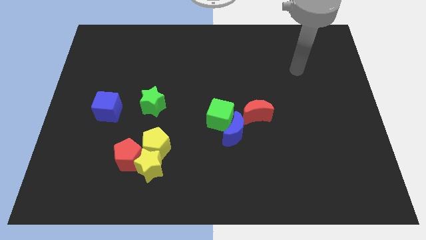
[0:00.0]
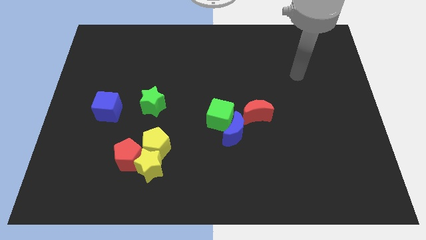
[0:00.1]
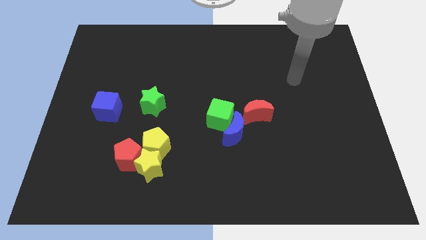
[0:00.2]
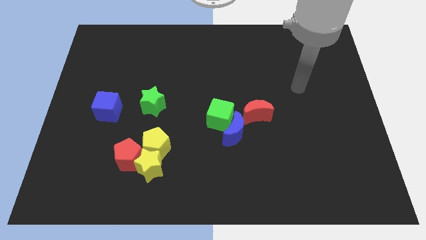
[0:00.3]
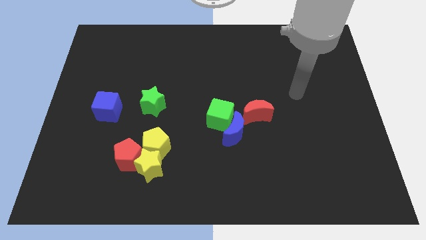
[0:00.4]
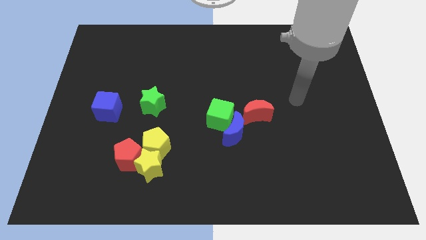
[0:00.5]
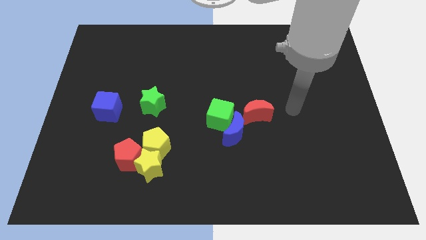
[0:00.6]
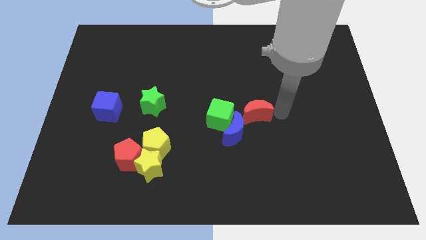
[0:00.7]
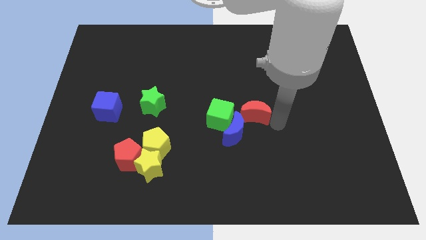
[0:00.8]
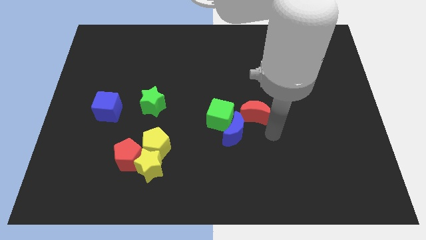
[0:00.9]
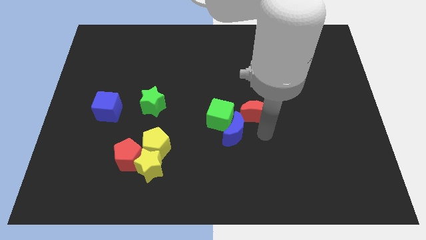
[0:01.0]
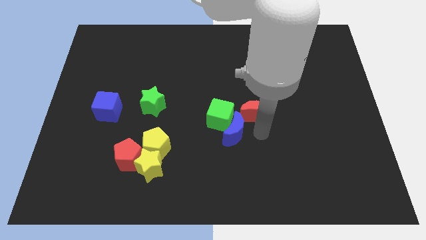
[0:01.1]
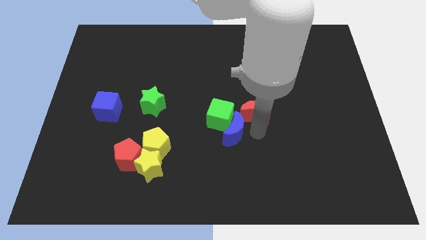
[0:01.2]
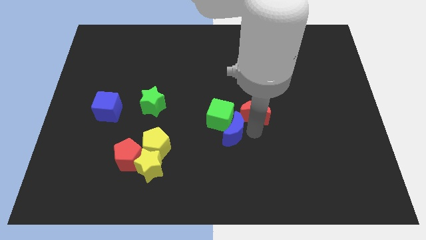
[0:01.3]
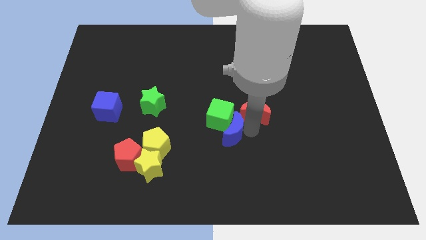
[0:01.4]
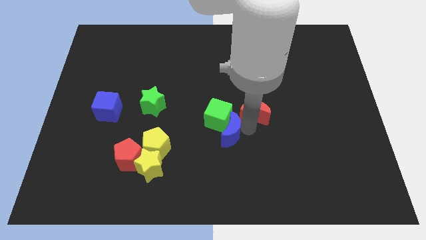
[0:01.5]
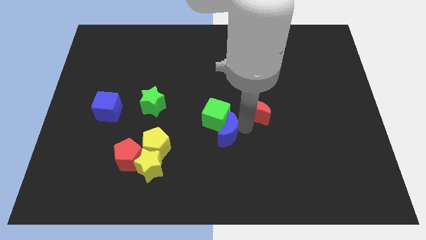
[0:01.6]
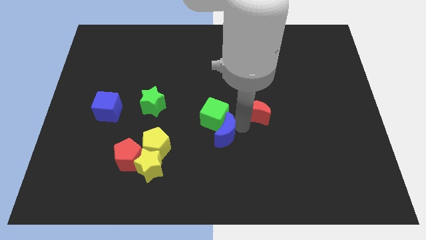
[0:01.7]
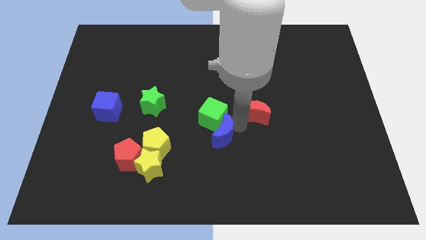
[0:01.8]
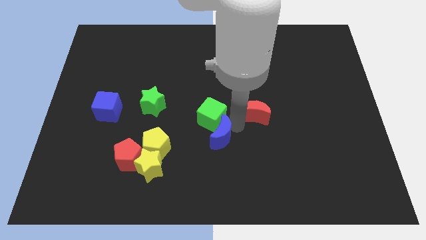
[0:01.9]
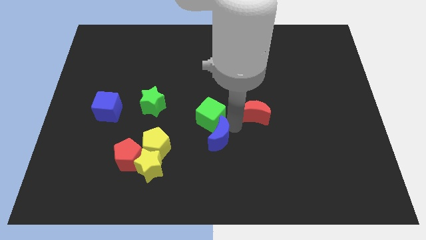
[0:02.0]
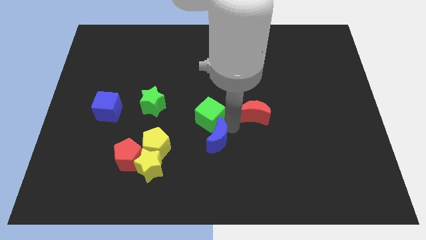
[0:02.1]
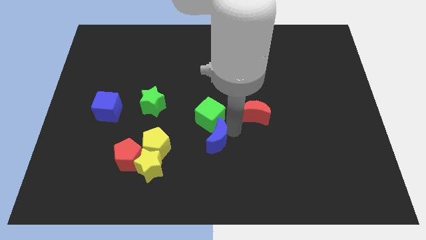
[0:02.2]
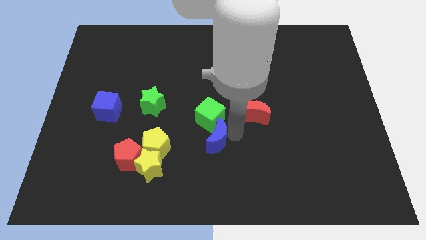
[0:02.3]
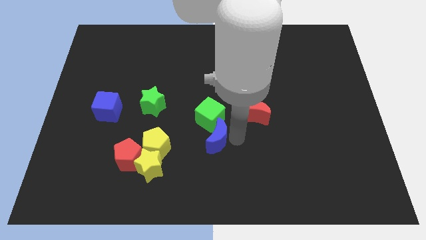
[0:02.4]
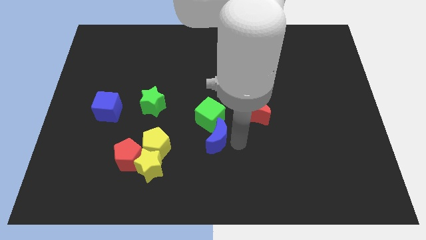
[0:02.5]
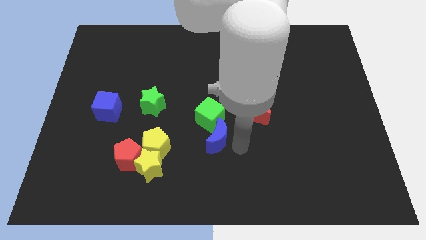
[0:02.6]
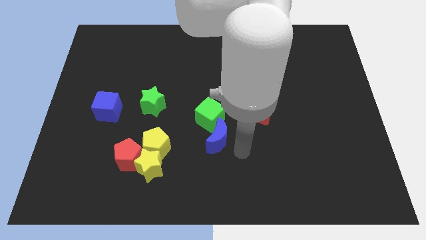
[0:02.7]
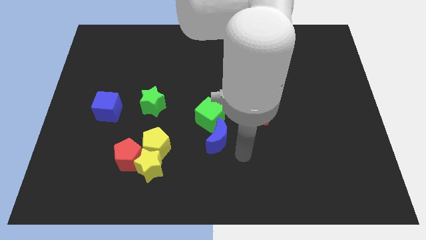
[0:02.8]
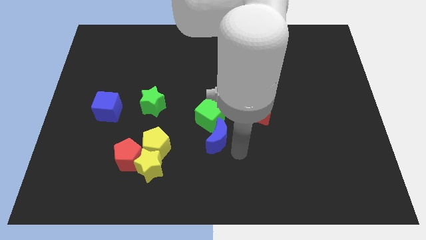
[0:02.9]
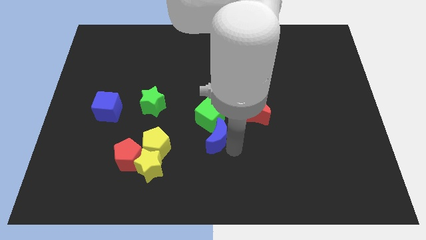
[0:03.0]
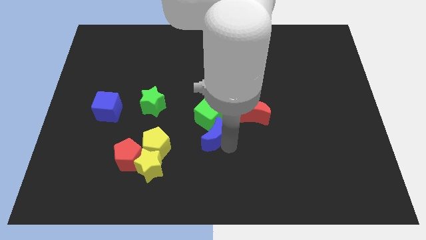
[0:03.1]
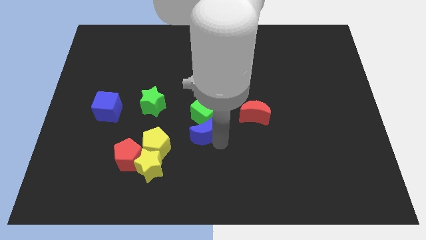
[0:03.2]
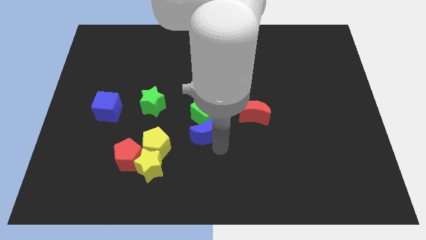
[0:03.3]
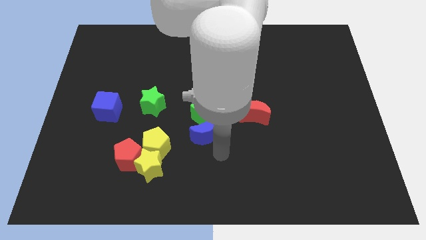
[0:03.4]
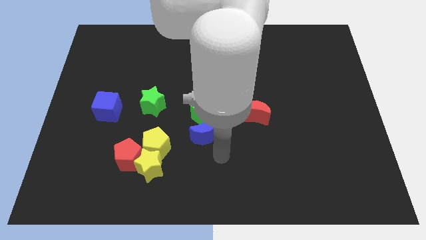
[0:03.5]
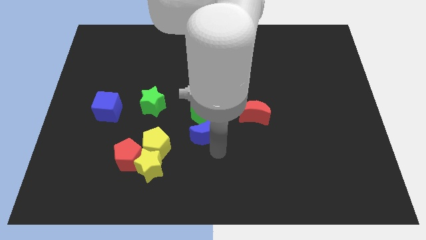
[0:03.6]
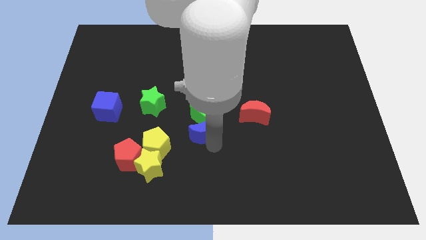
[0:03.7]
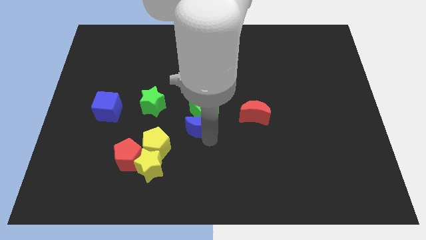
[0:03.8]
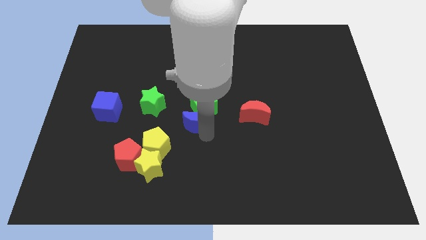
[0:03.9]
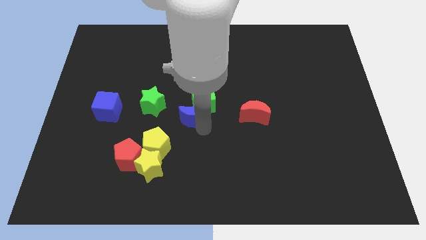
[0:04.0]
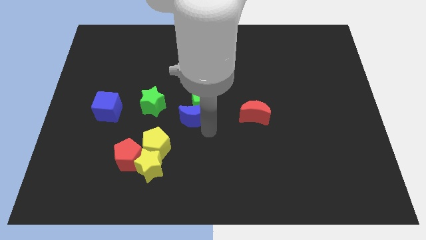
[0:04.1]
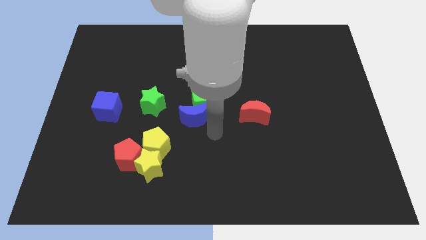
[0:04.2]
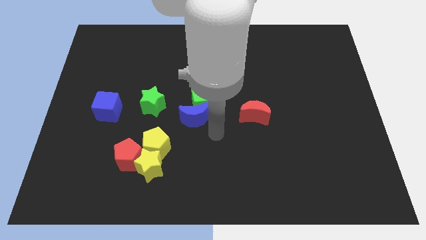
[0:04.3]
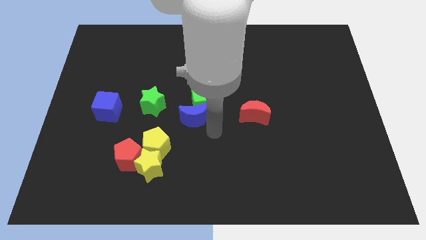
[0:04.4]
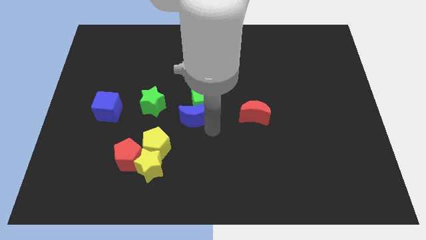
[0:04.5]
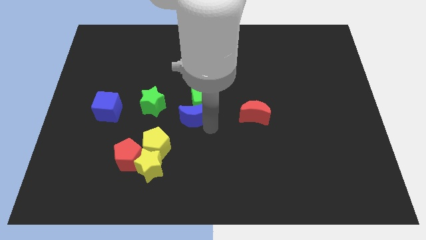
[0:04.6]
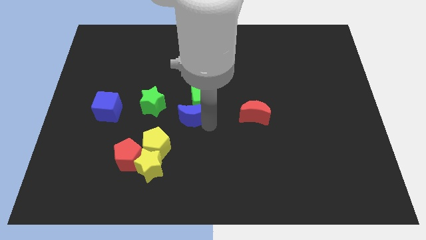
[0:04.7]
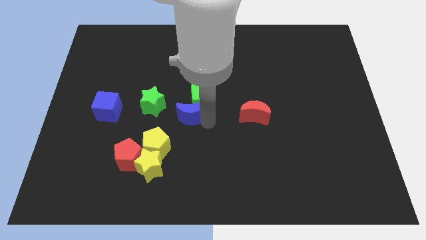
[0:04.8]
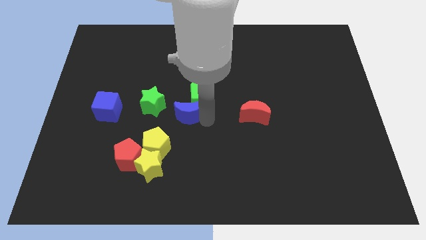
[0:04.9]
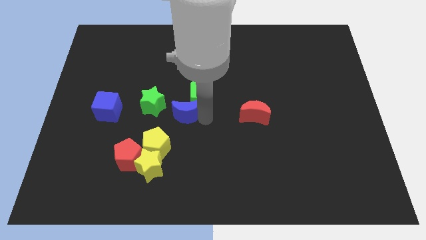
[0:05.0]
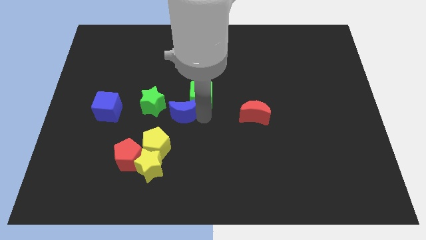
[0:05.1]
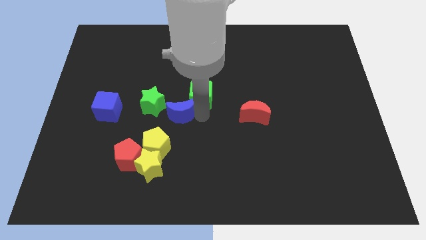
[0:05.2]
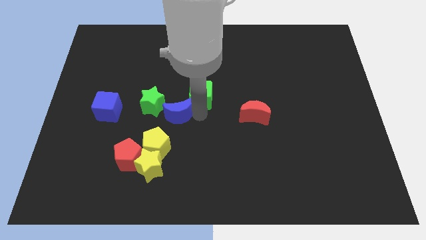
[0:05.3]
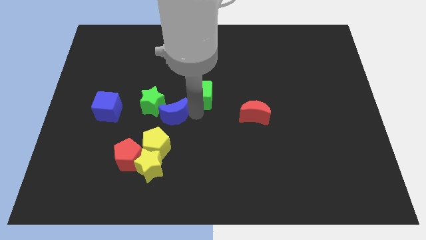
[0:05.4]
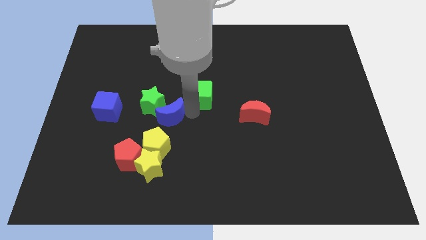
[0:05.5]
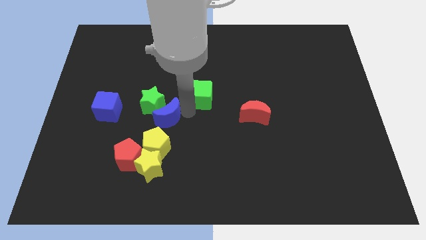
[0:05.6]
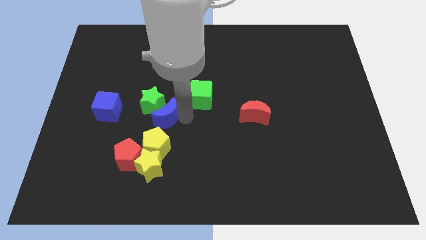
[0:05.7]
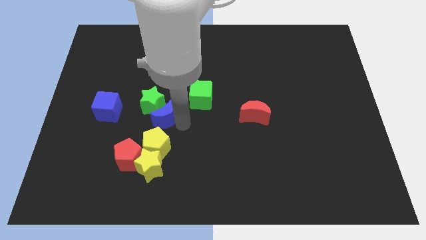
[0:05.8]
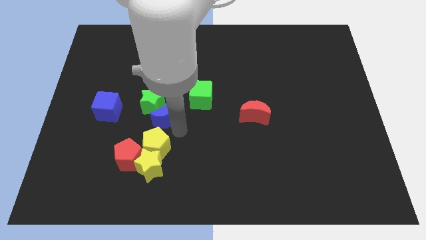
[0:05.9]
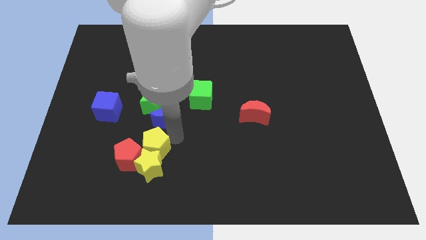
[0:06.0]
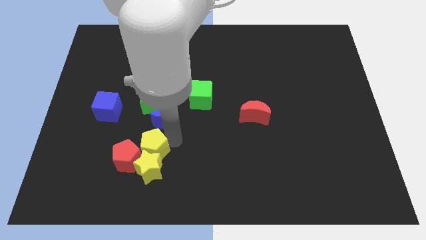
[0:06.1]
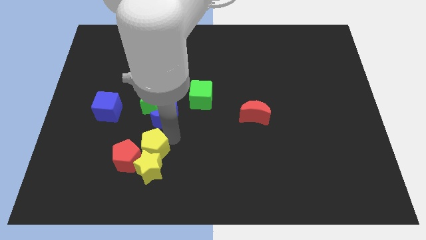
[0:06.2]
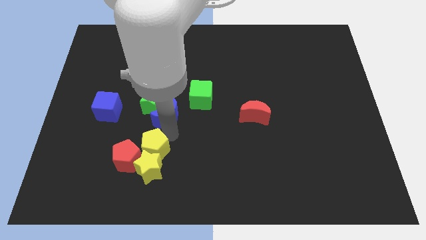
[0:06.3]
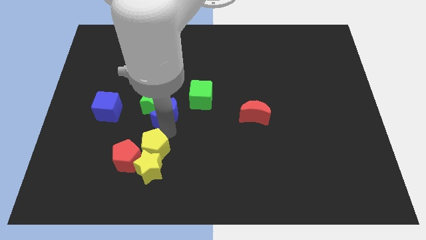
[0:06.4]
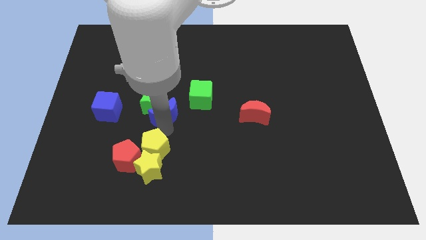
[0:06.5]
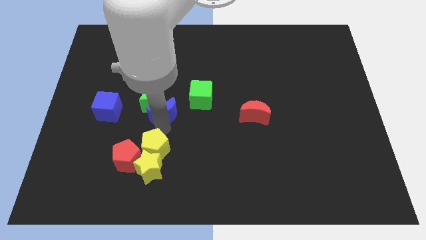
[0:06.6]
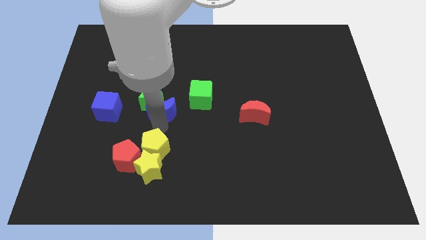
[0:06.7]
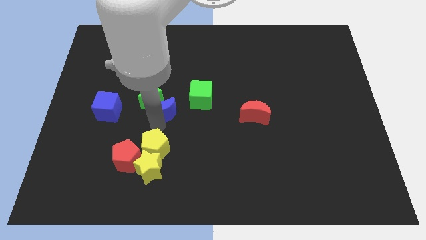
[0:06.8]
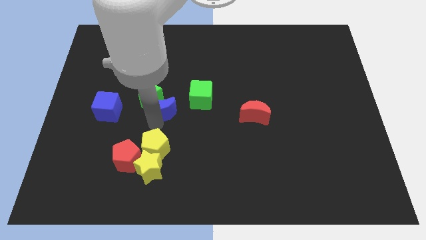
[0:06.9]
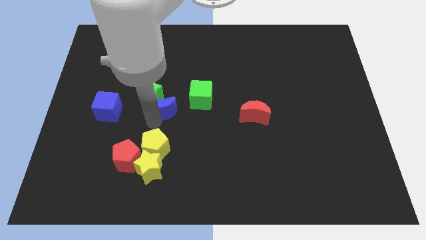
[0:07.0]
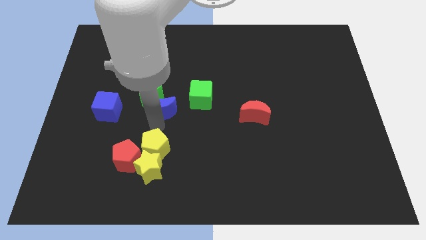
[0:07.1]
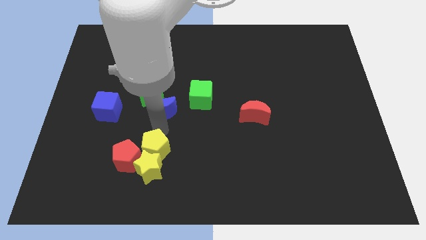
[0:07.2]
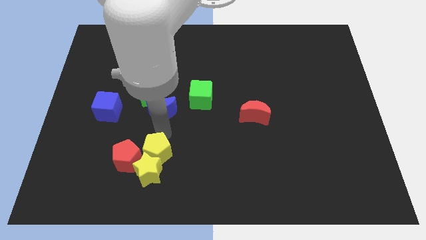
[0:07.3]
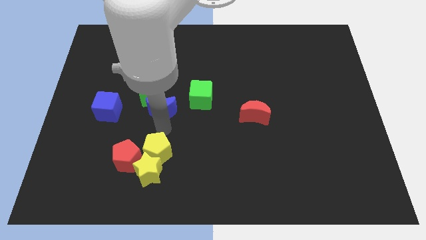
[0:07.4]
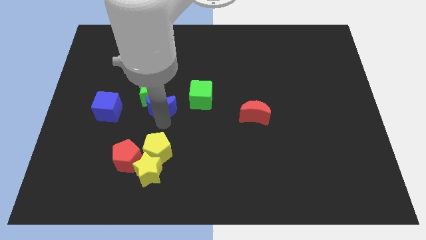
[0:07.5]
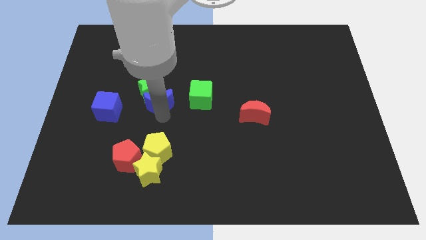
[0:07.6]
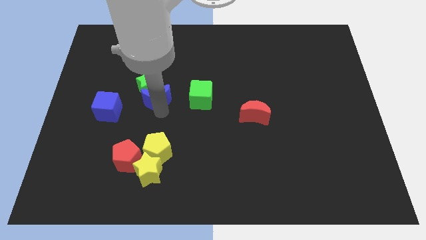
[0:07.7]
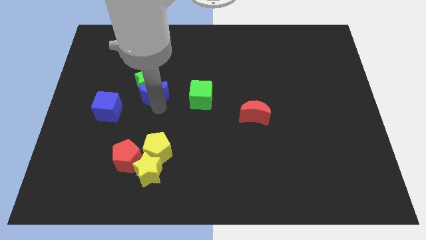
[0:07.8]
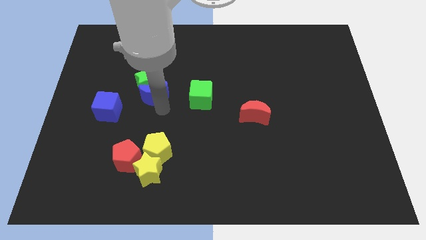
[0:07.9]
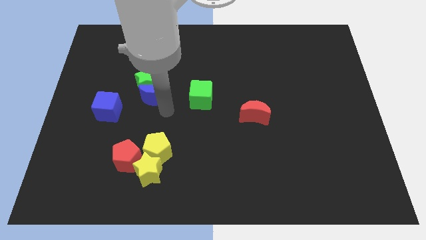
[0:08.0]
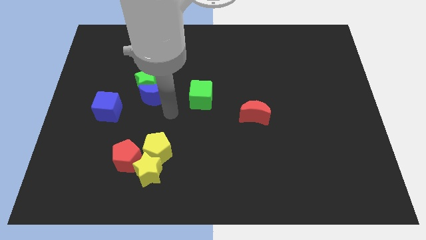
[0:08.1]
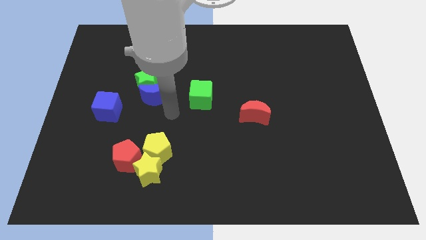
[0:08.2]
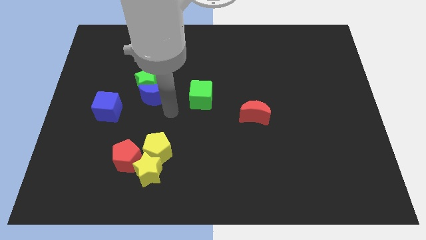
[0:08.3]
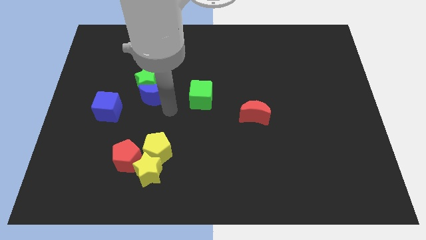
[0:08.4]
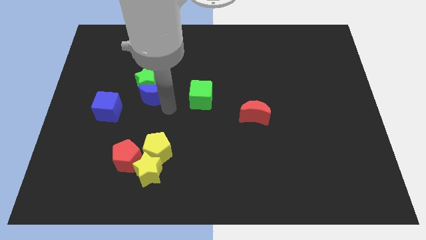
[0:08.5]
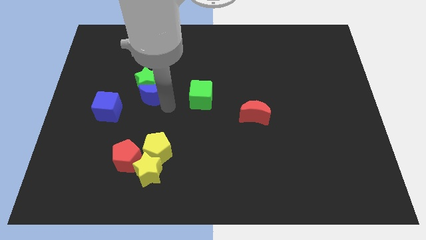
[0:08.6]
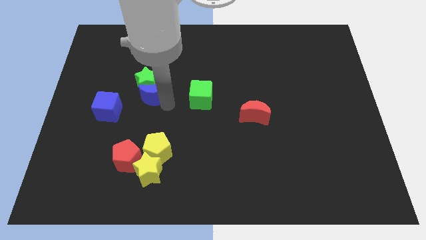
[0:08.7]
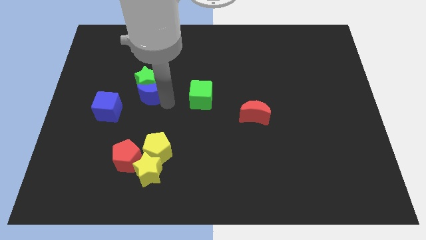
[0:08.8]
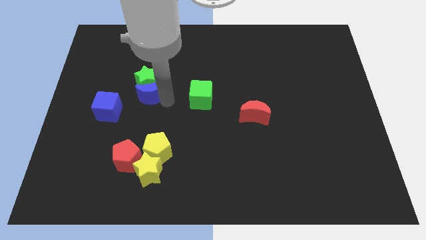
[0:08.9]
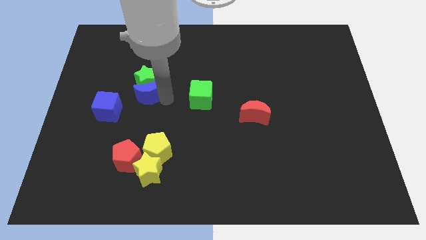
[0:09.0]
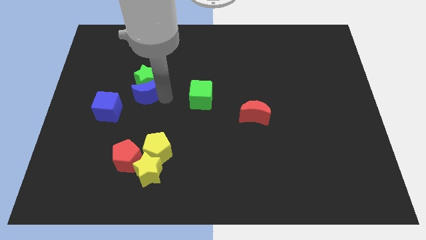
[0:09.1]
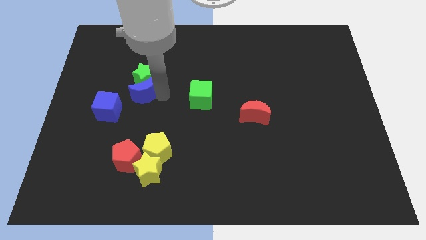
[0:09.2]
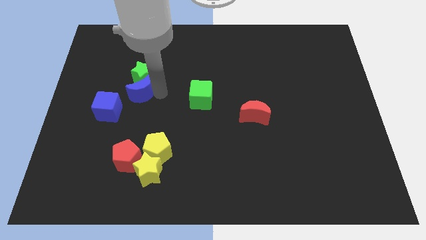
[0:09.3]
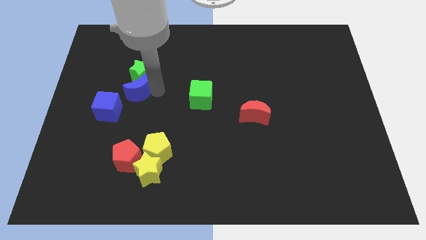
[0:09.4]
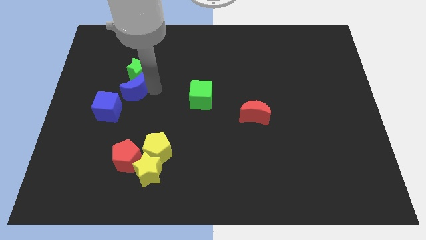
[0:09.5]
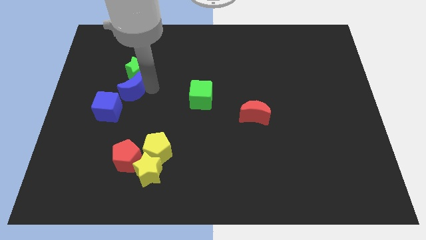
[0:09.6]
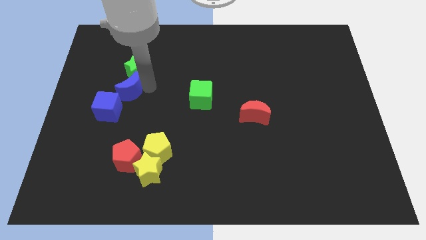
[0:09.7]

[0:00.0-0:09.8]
slide the blue moon to the top side of the blue cube
